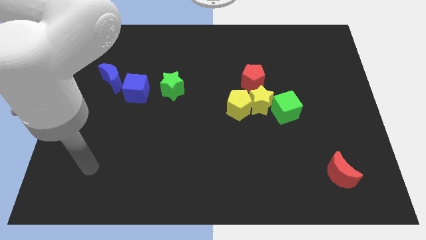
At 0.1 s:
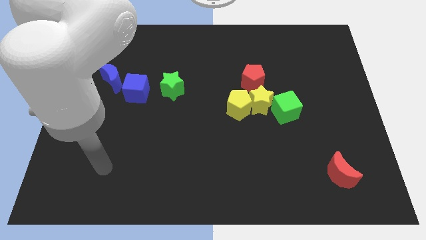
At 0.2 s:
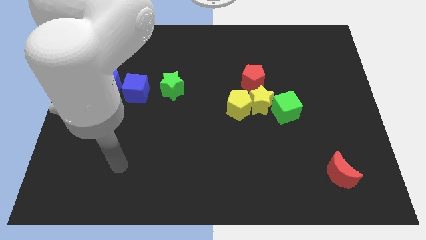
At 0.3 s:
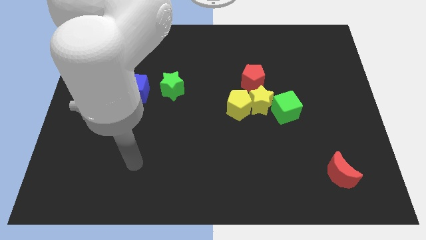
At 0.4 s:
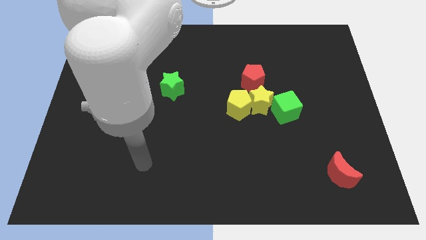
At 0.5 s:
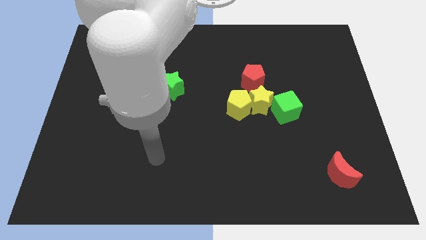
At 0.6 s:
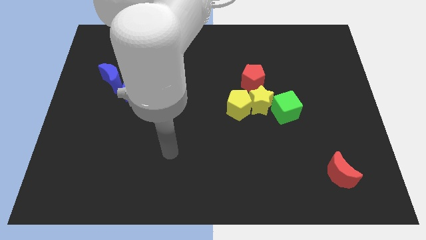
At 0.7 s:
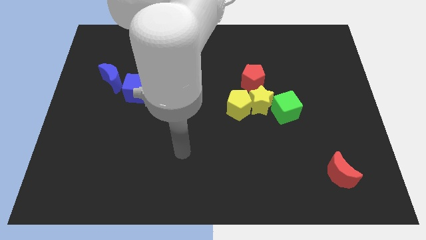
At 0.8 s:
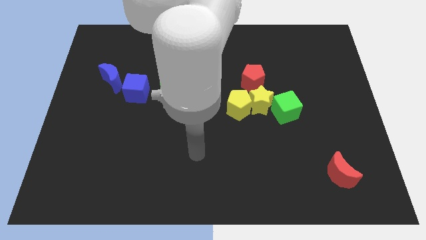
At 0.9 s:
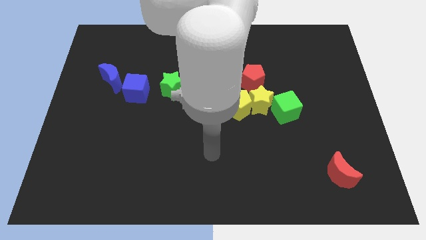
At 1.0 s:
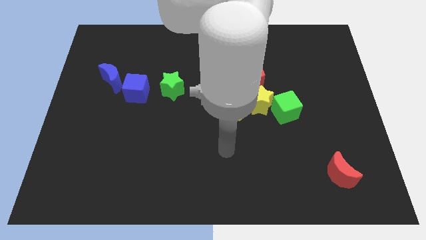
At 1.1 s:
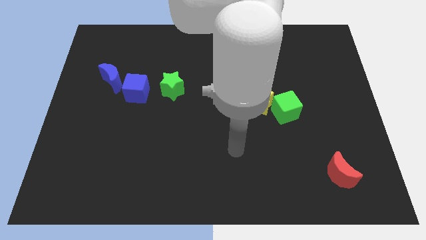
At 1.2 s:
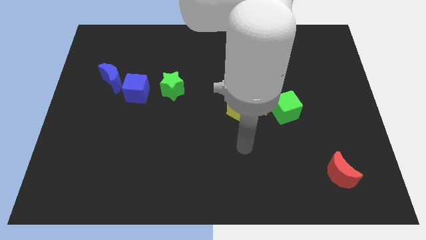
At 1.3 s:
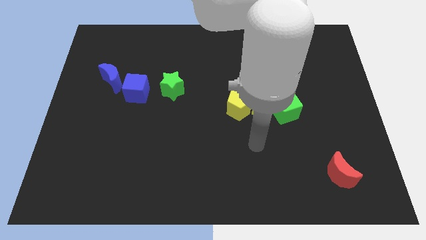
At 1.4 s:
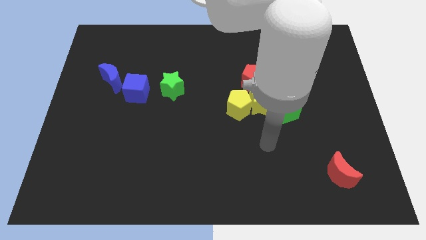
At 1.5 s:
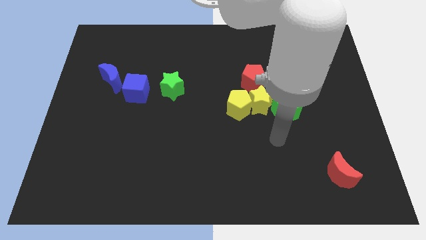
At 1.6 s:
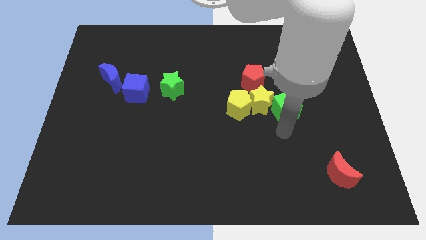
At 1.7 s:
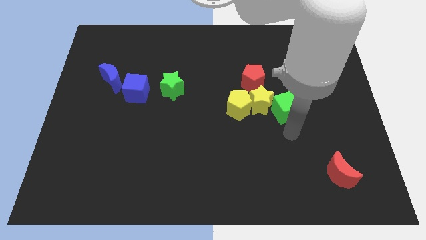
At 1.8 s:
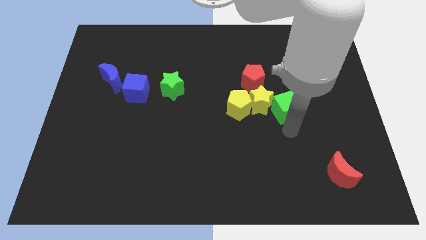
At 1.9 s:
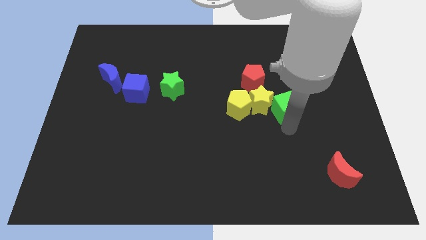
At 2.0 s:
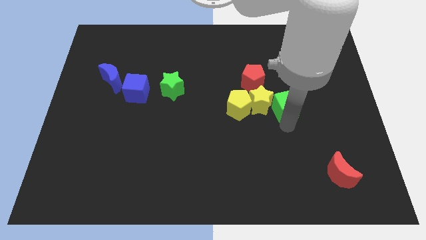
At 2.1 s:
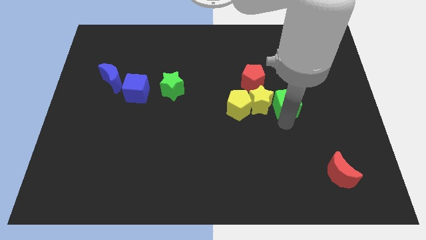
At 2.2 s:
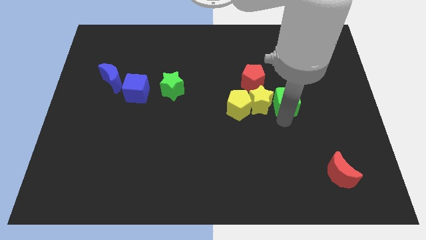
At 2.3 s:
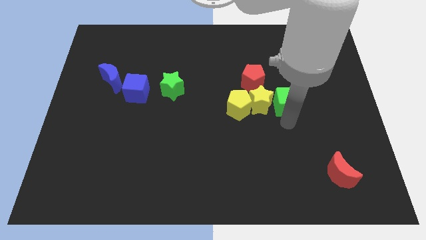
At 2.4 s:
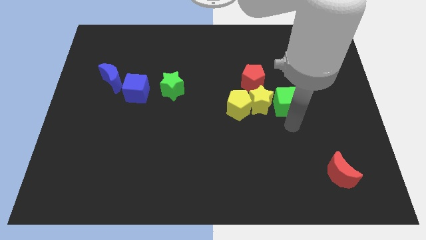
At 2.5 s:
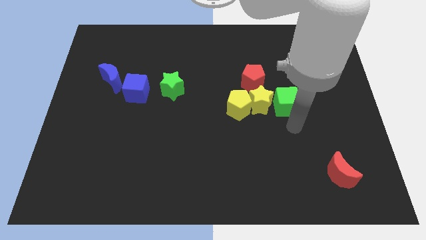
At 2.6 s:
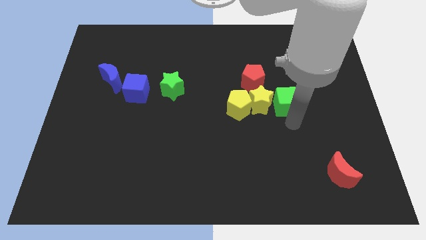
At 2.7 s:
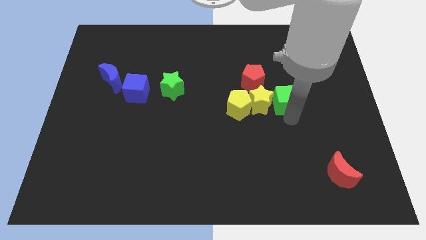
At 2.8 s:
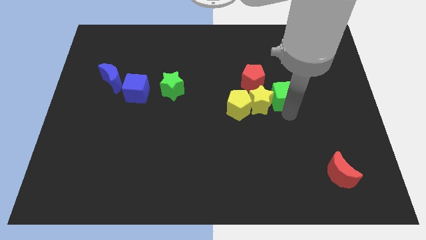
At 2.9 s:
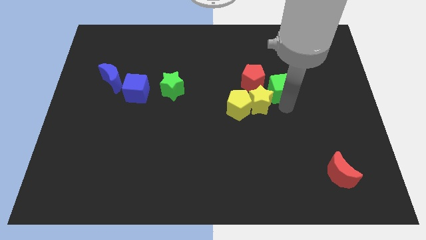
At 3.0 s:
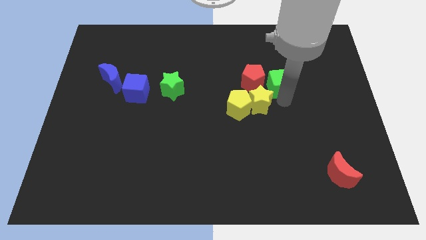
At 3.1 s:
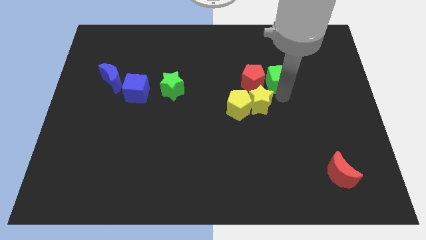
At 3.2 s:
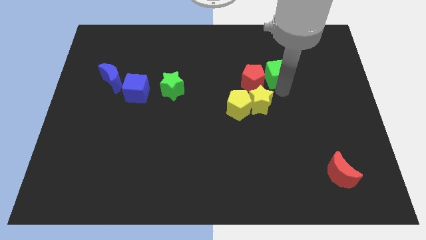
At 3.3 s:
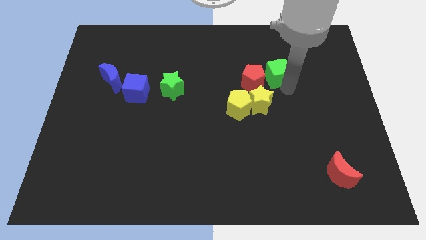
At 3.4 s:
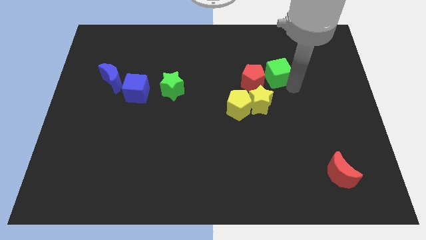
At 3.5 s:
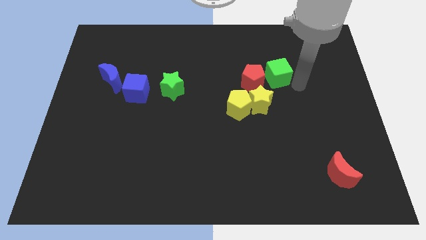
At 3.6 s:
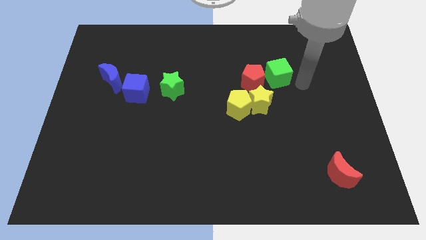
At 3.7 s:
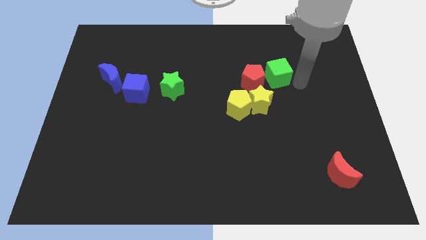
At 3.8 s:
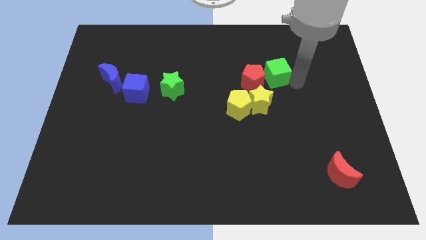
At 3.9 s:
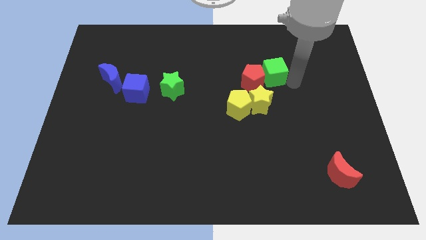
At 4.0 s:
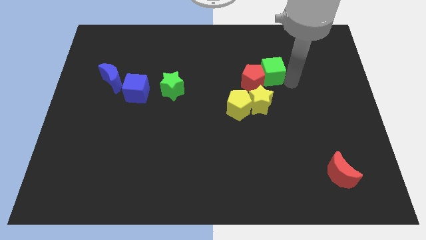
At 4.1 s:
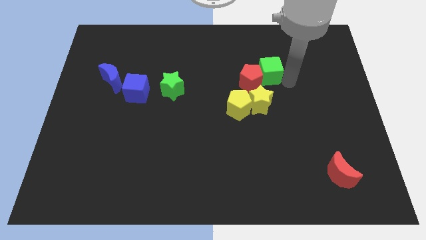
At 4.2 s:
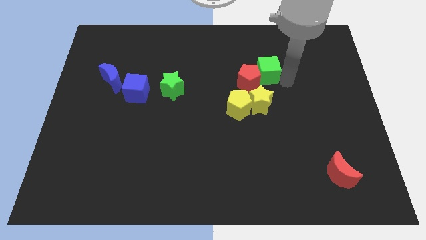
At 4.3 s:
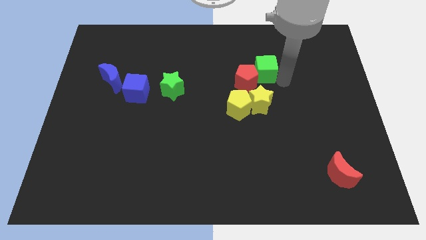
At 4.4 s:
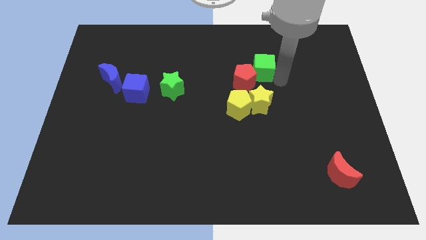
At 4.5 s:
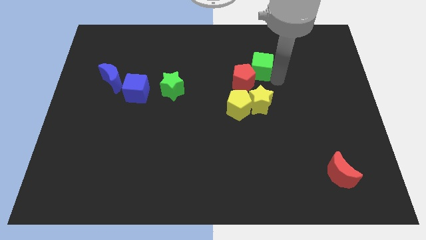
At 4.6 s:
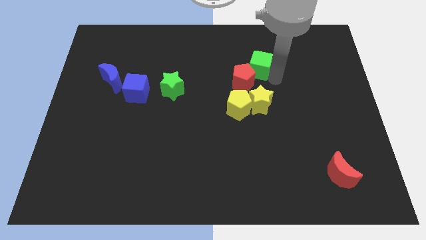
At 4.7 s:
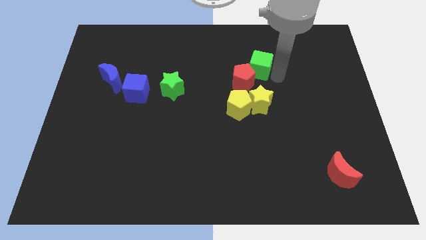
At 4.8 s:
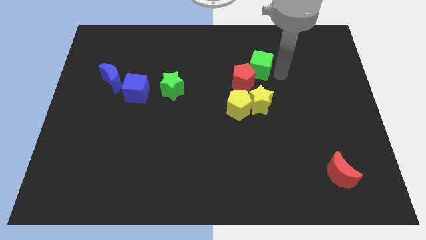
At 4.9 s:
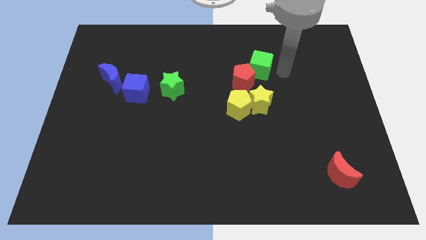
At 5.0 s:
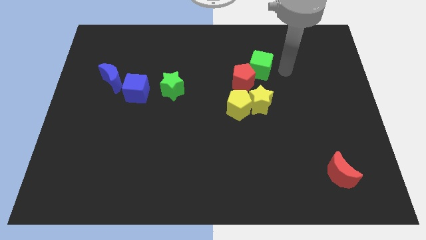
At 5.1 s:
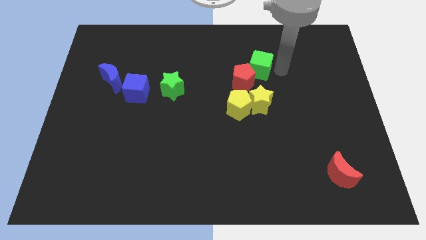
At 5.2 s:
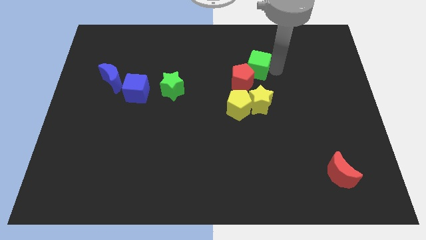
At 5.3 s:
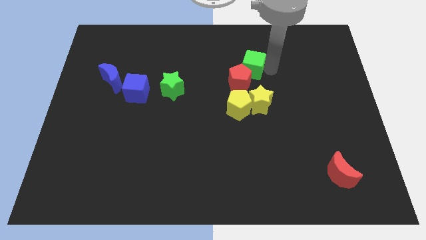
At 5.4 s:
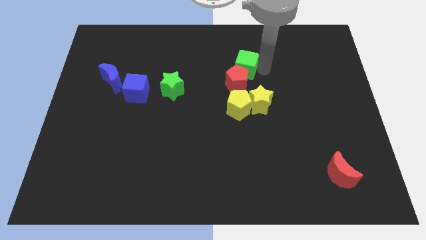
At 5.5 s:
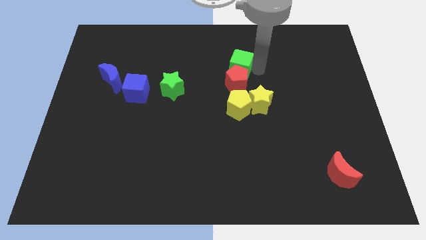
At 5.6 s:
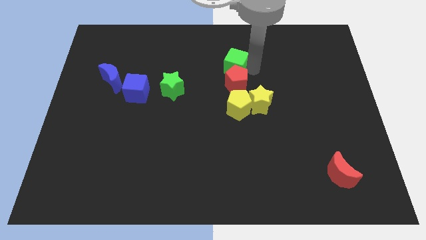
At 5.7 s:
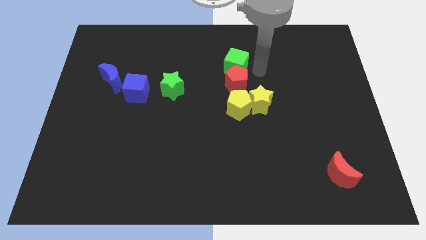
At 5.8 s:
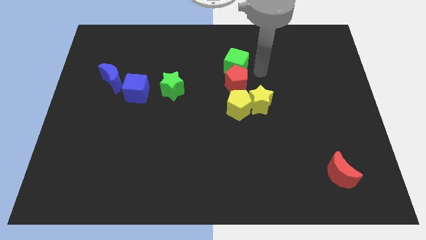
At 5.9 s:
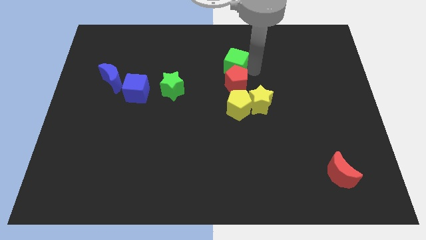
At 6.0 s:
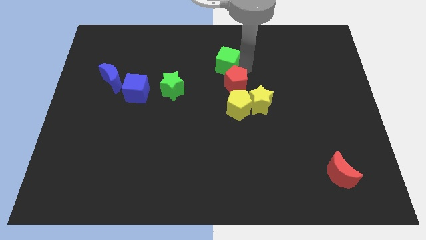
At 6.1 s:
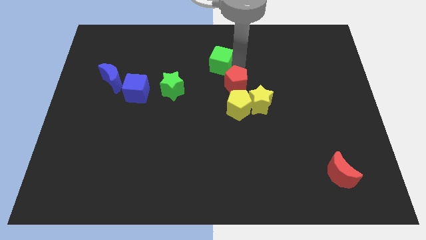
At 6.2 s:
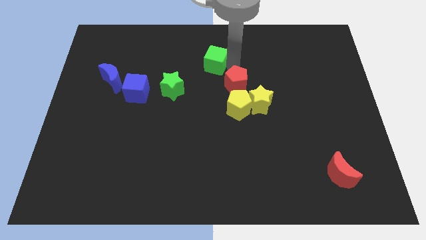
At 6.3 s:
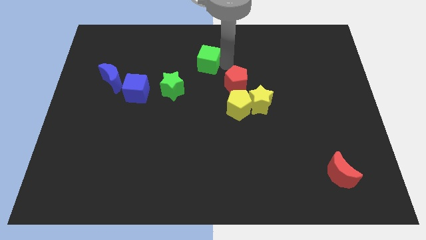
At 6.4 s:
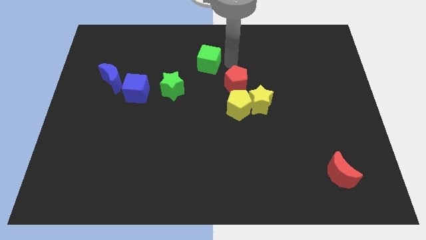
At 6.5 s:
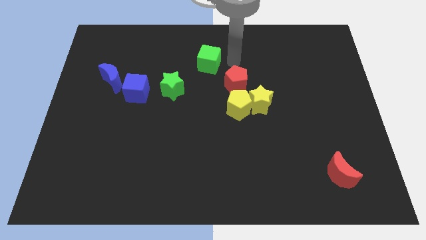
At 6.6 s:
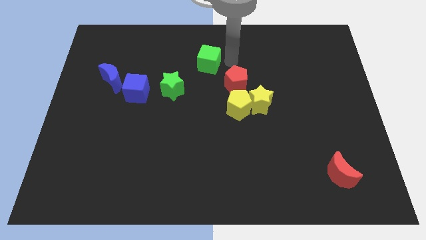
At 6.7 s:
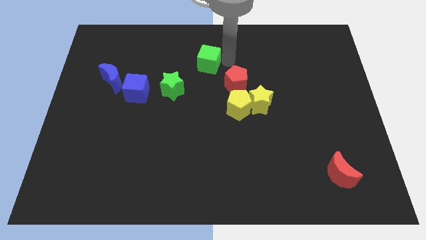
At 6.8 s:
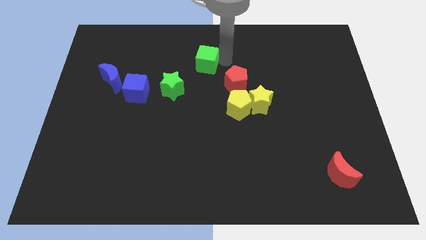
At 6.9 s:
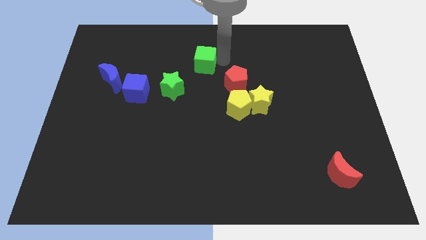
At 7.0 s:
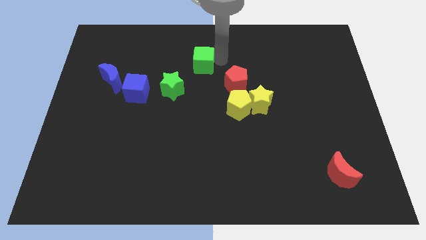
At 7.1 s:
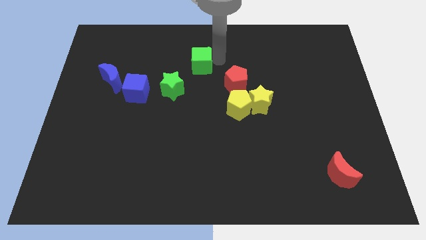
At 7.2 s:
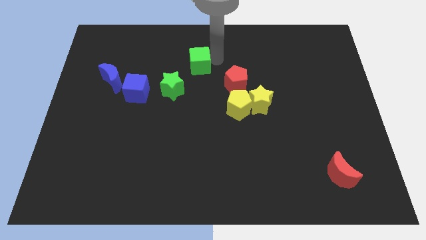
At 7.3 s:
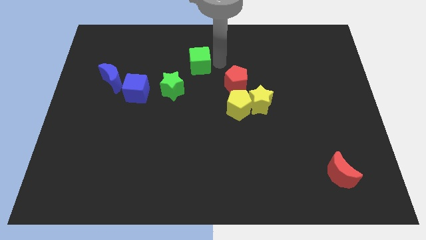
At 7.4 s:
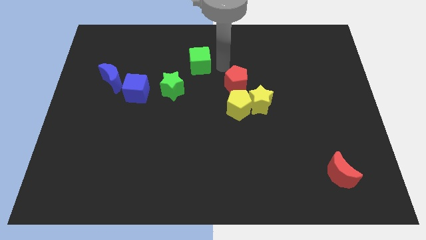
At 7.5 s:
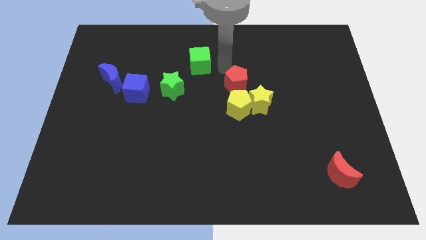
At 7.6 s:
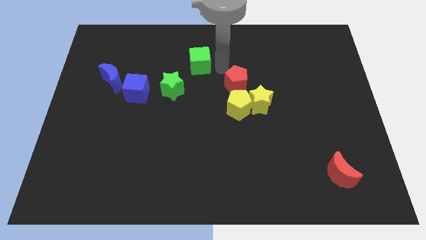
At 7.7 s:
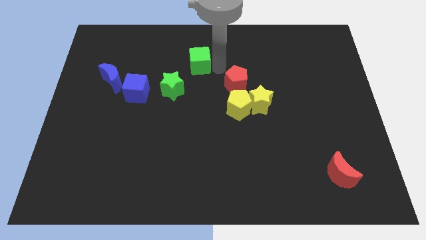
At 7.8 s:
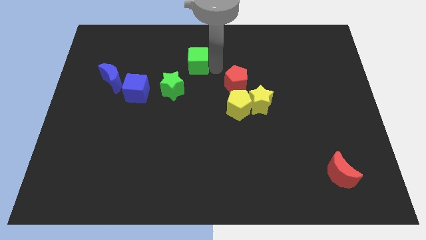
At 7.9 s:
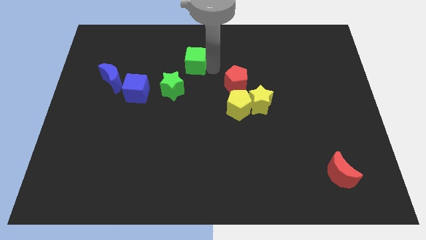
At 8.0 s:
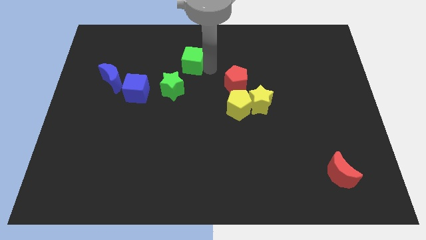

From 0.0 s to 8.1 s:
push the green cube to the top of the green star
